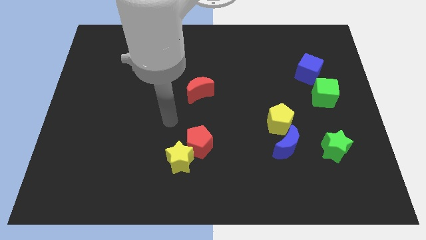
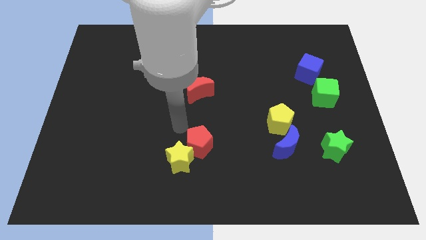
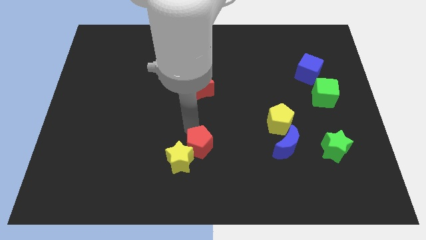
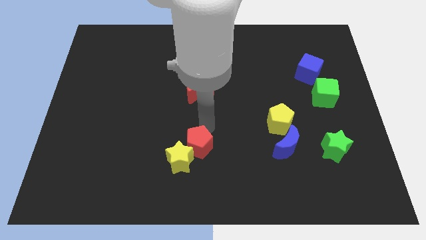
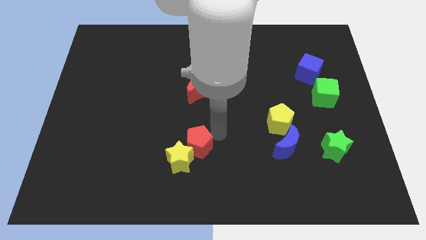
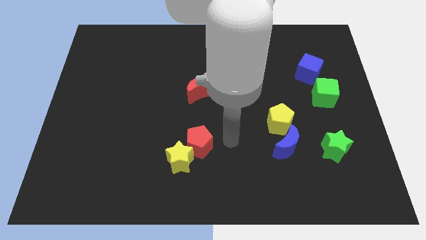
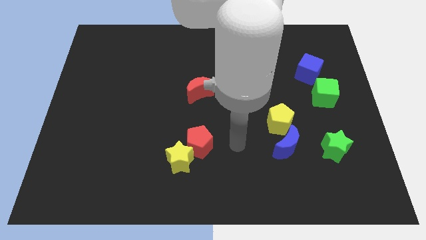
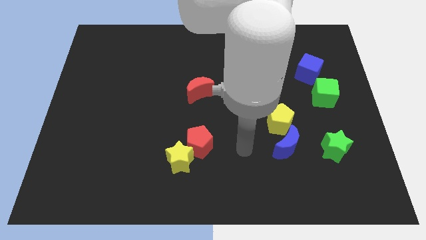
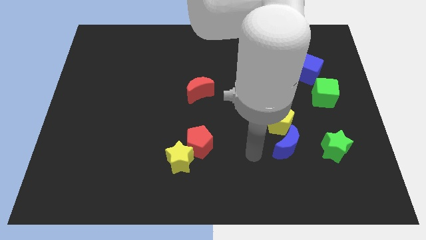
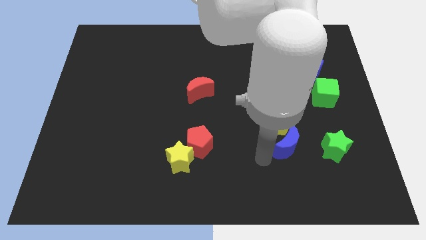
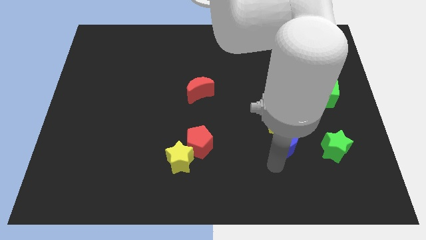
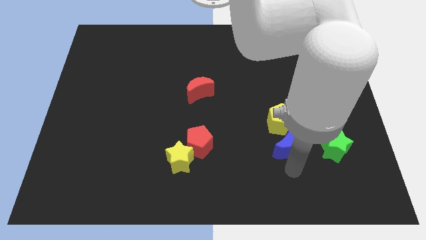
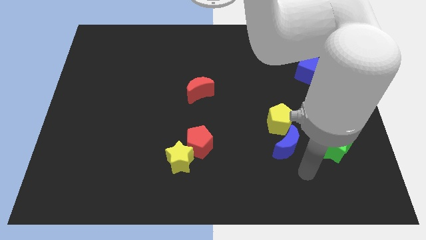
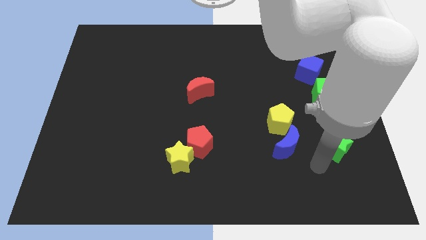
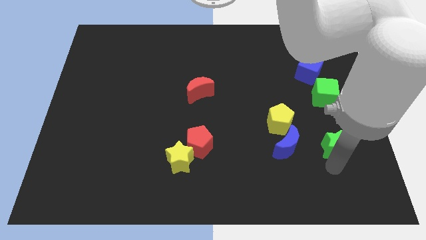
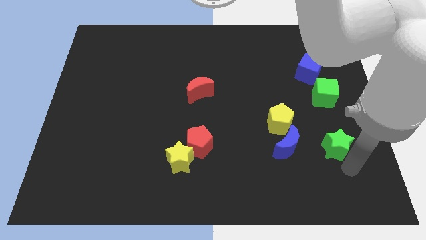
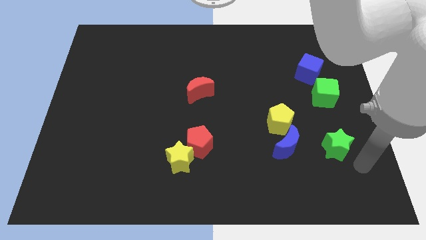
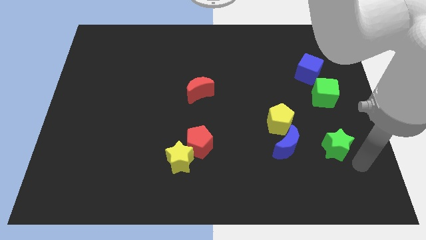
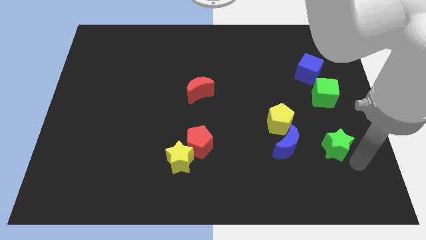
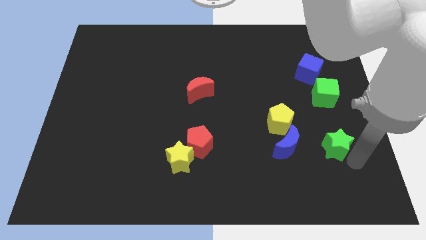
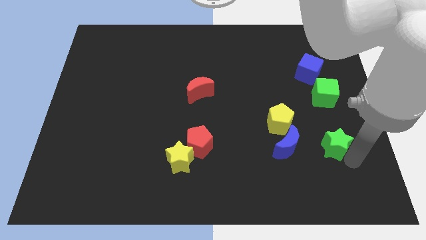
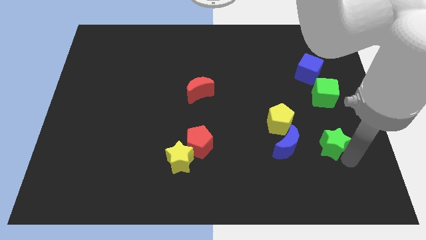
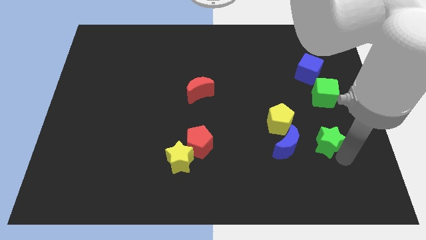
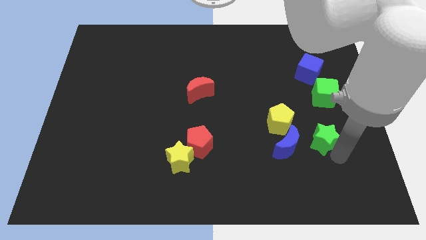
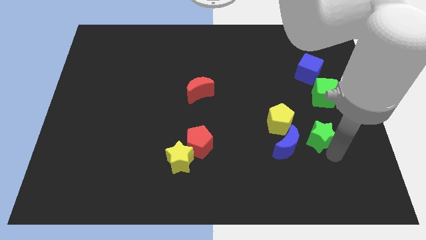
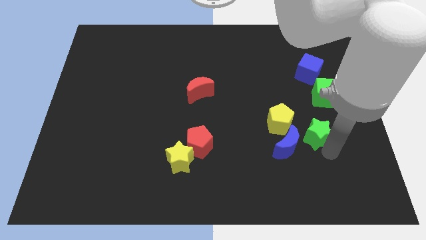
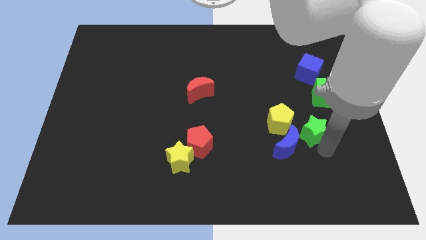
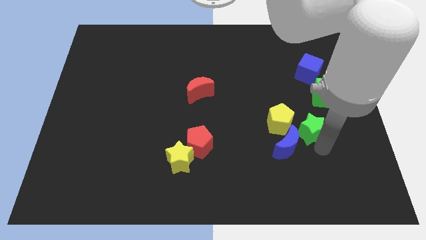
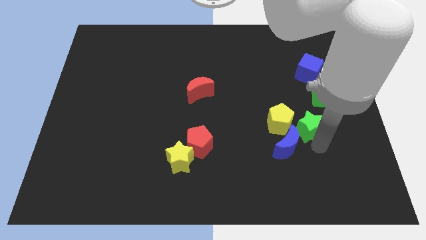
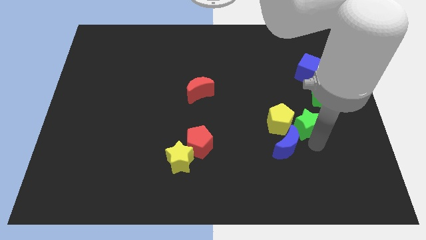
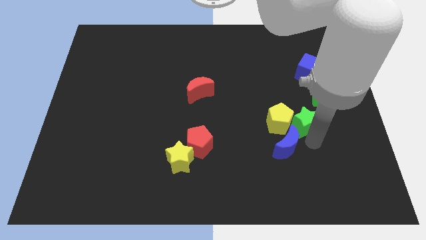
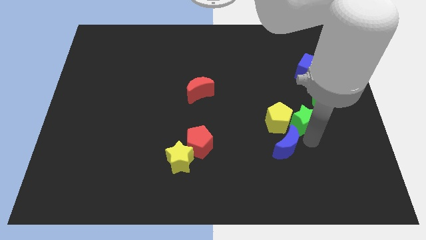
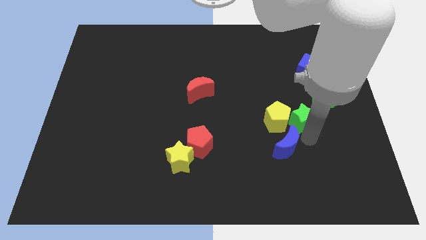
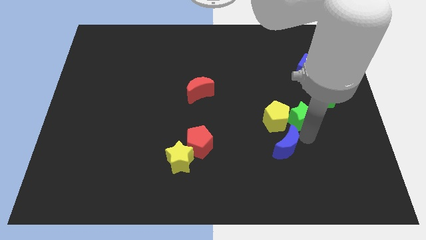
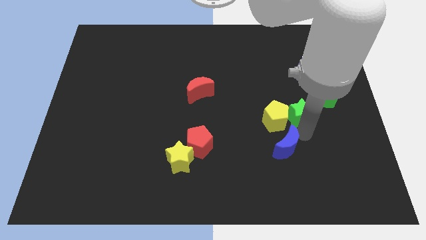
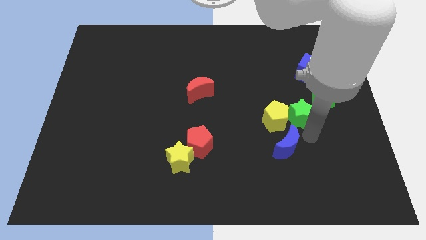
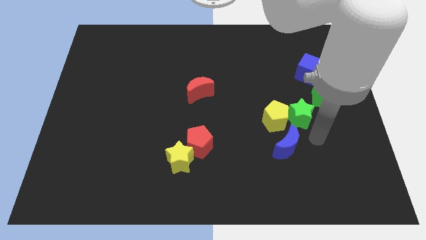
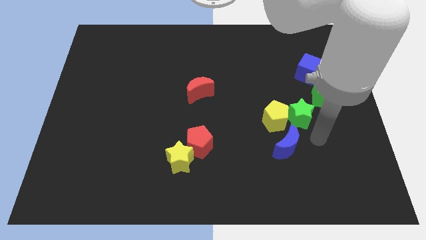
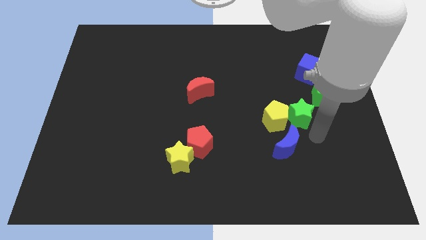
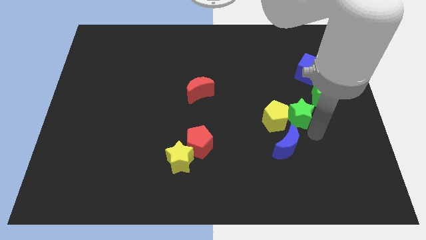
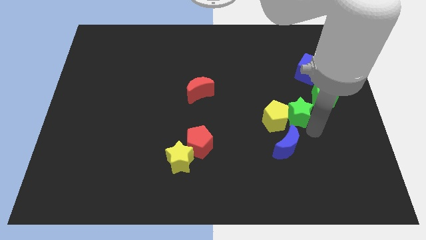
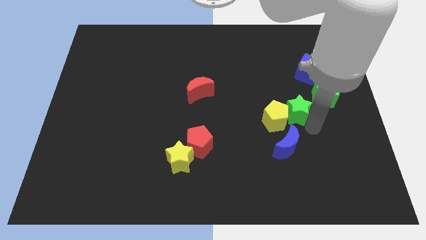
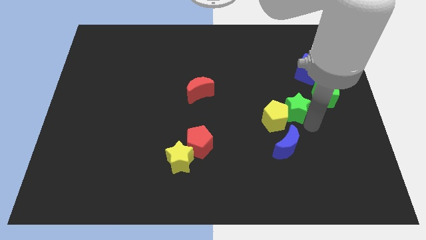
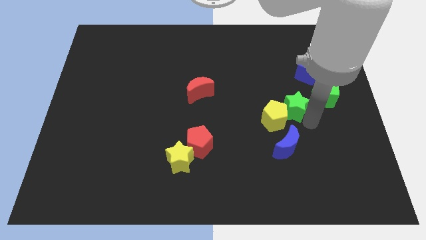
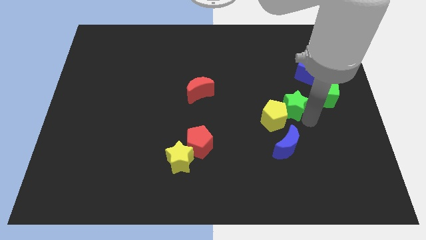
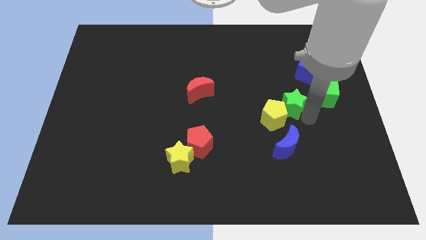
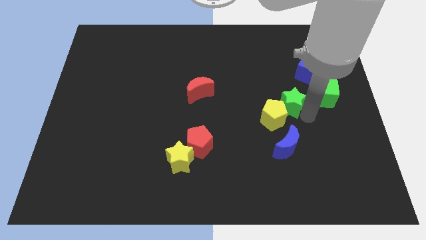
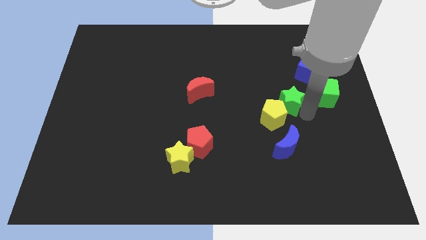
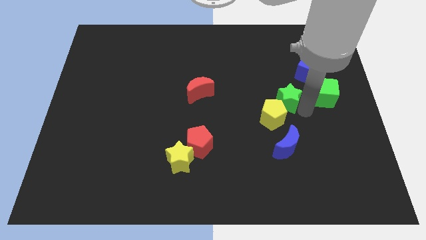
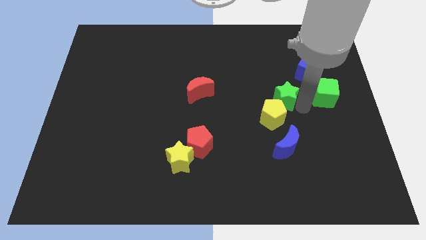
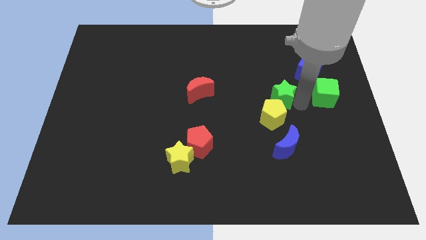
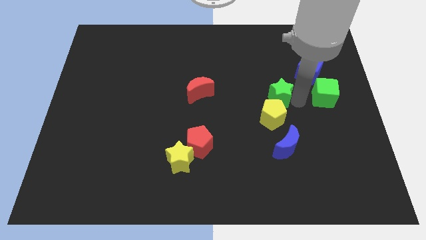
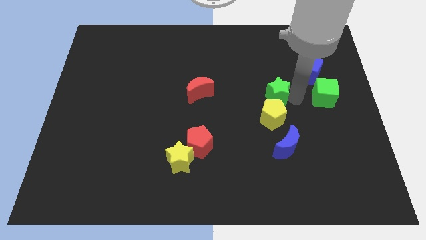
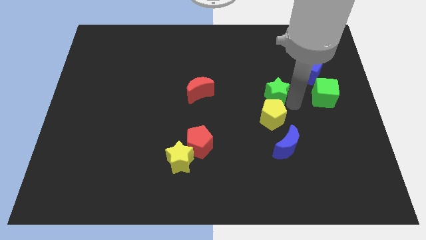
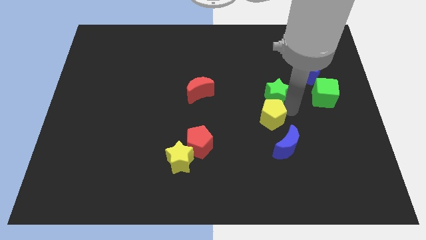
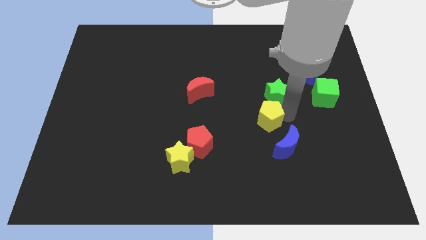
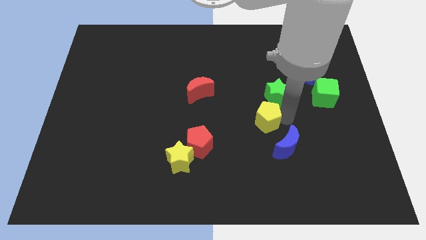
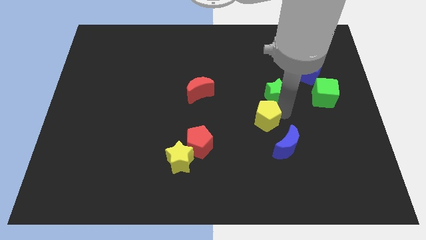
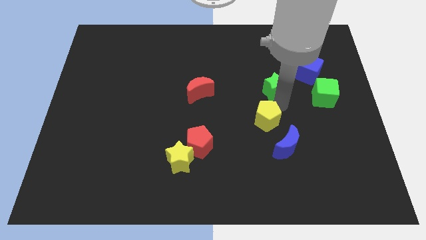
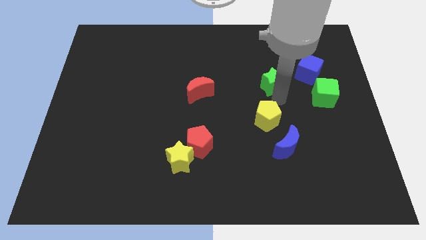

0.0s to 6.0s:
slide the green star to the left of the blue cube

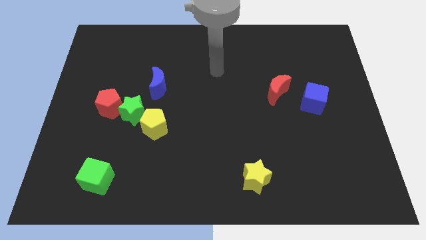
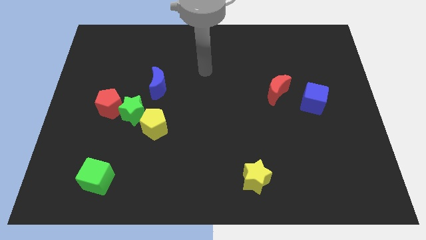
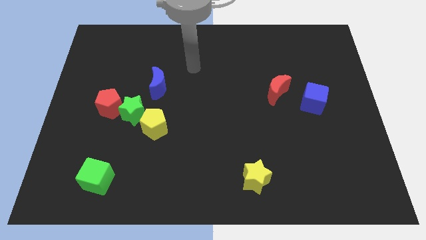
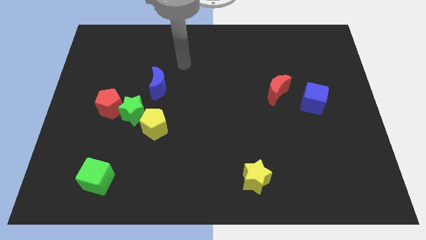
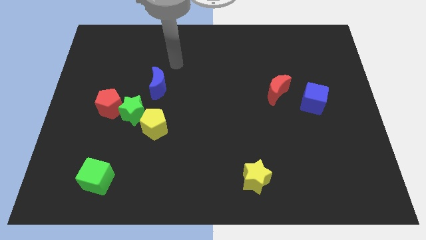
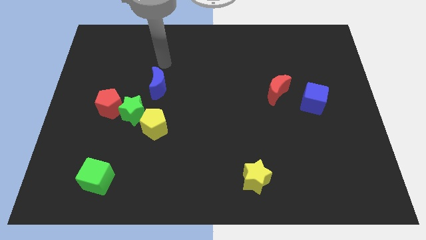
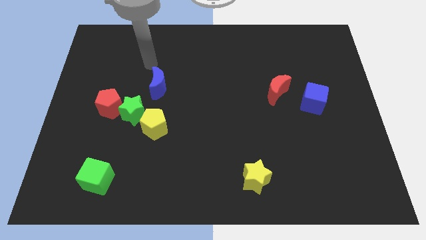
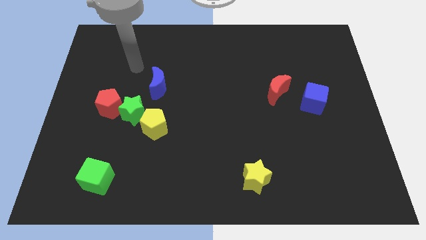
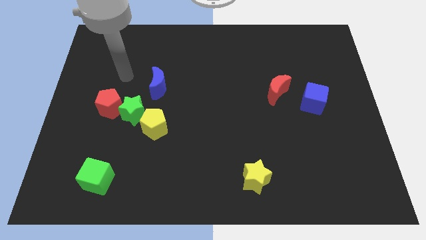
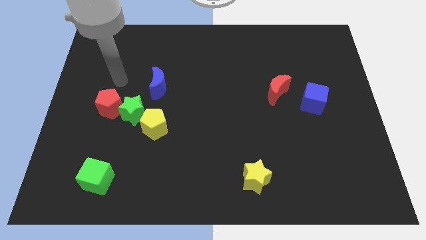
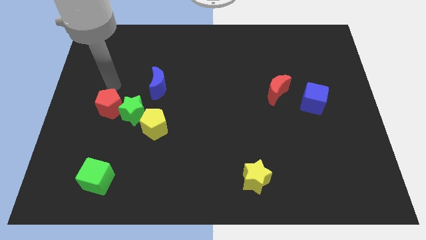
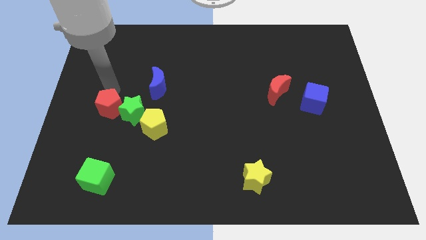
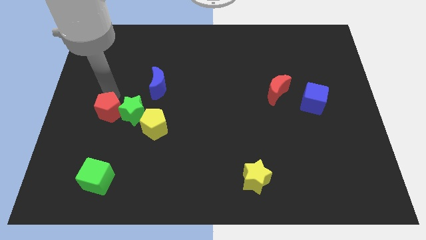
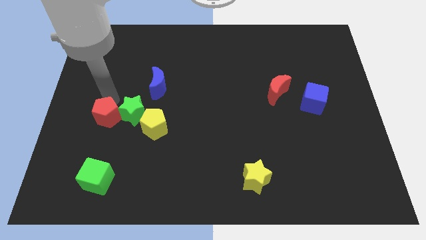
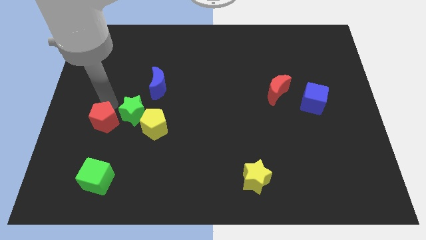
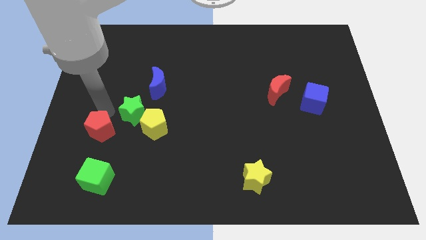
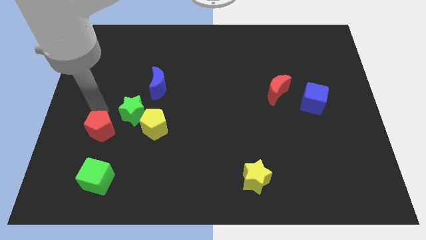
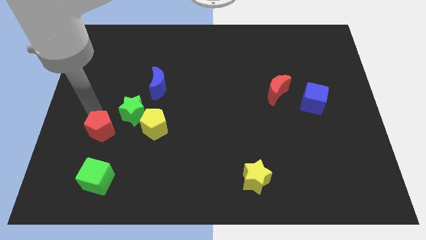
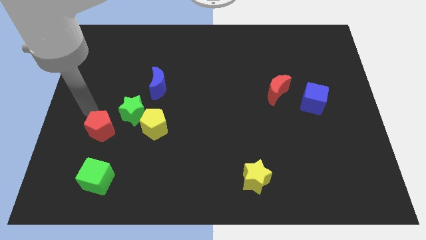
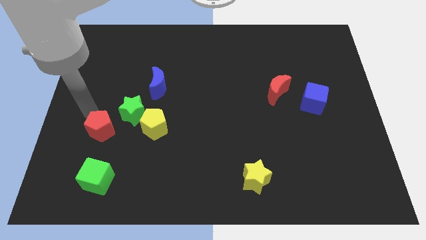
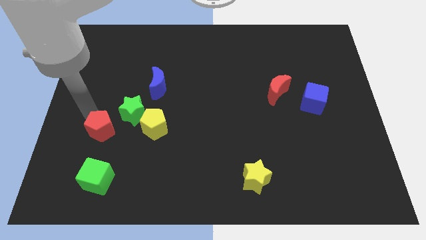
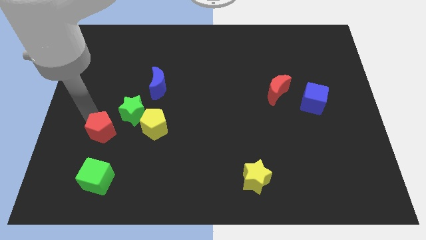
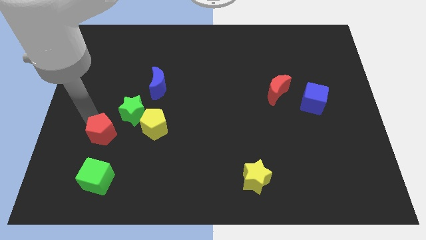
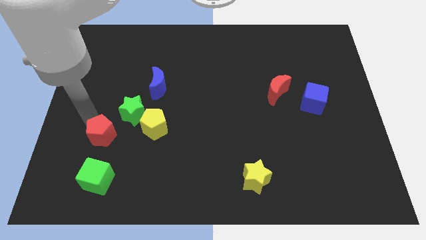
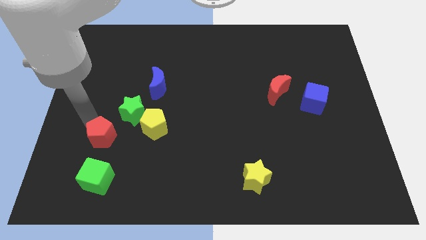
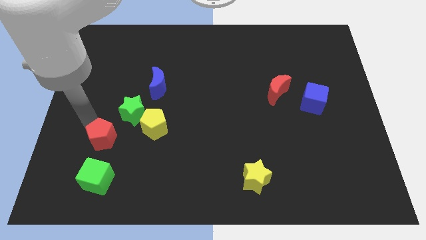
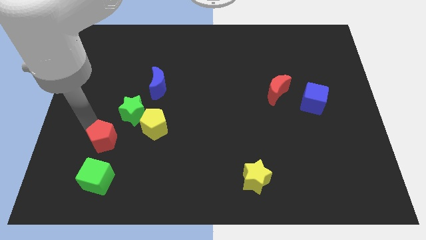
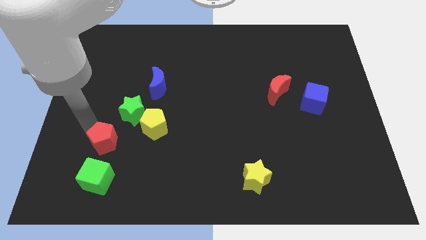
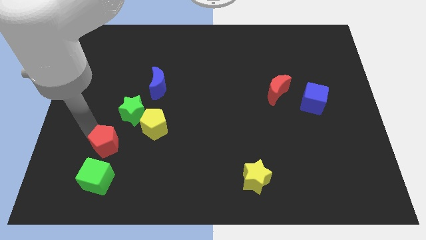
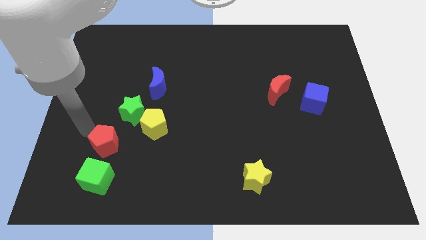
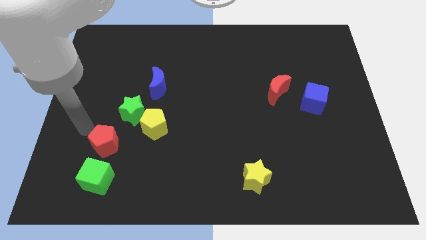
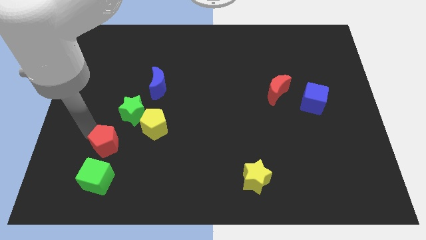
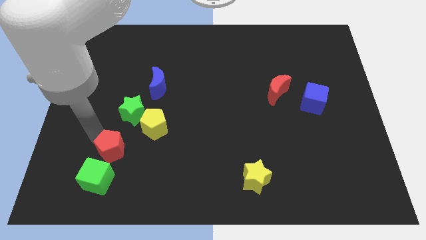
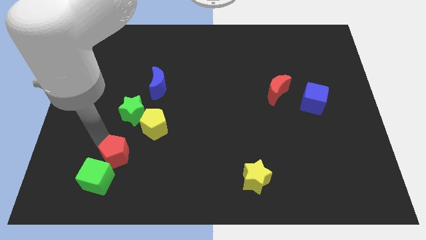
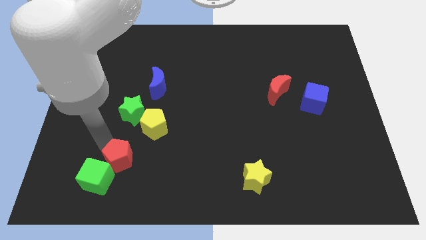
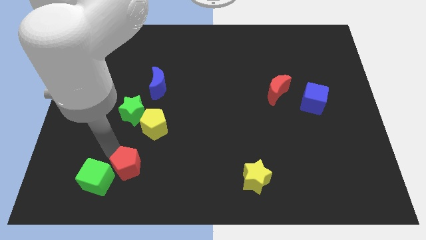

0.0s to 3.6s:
push the red pentagon just right of the green cube
